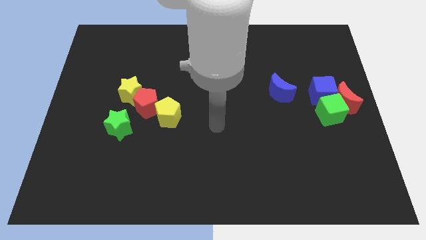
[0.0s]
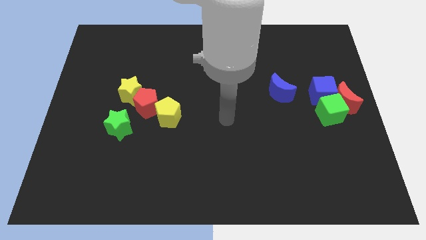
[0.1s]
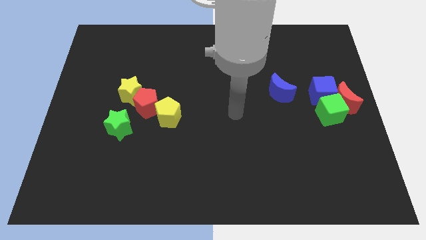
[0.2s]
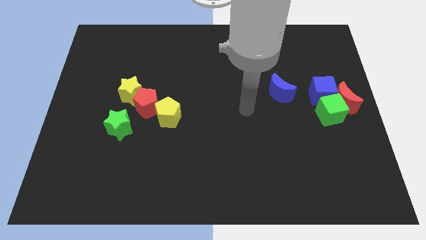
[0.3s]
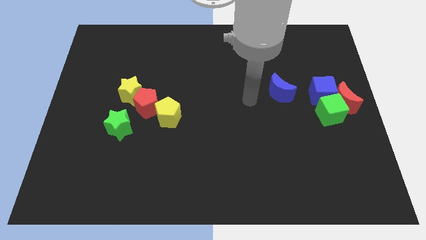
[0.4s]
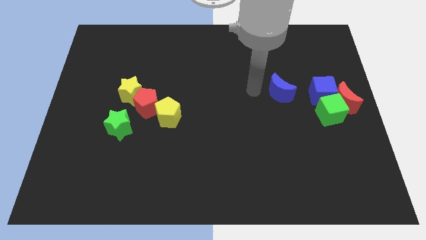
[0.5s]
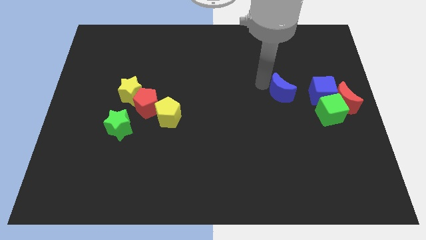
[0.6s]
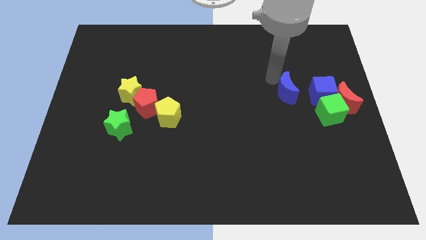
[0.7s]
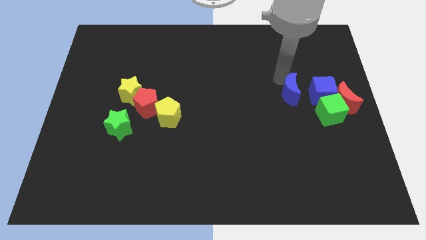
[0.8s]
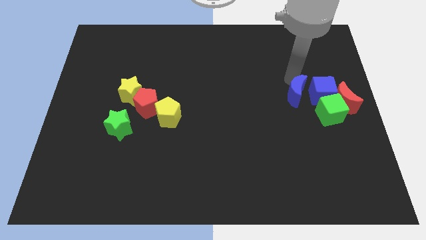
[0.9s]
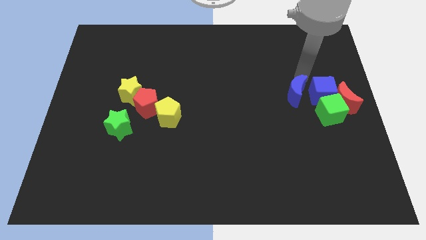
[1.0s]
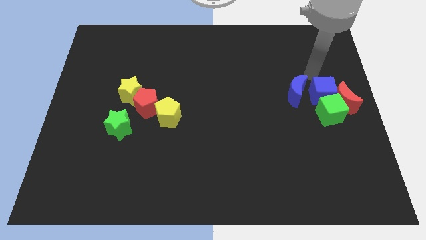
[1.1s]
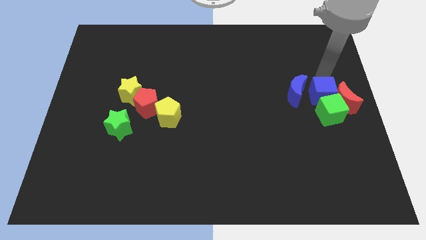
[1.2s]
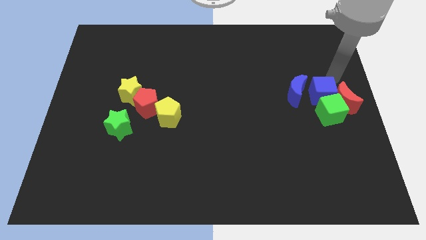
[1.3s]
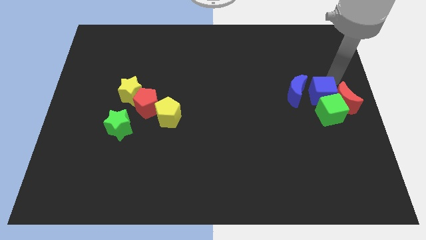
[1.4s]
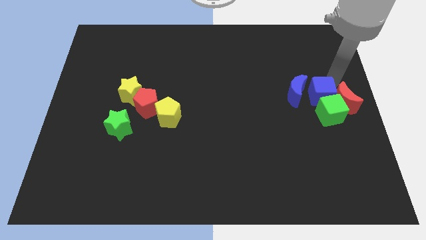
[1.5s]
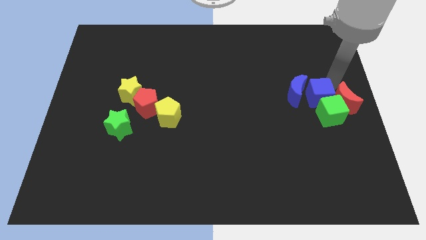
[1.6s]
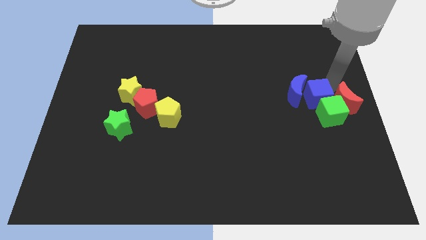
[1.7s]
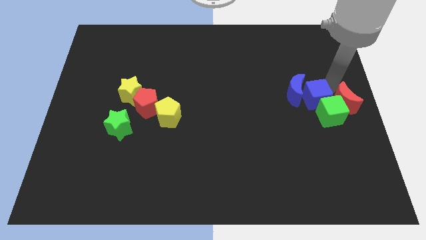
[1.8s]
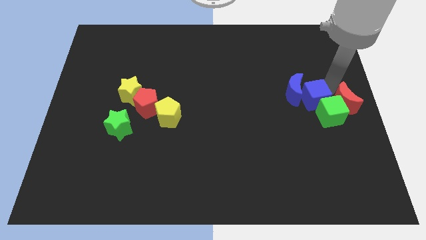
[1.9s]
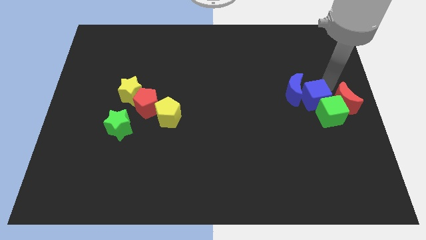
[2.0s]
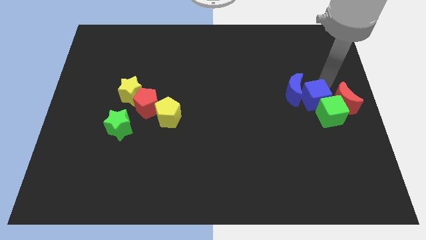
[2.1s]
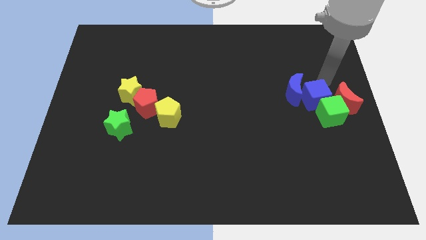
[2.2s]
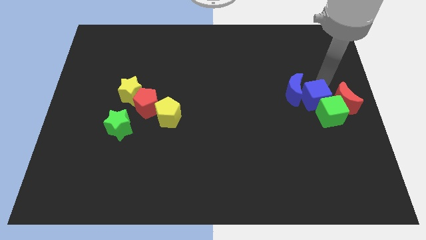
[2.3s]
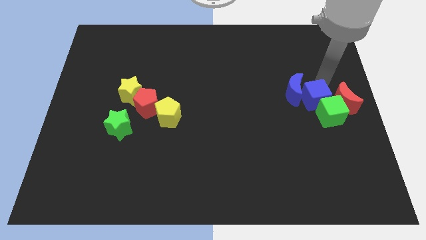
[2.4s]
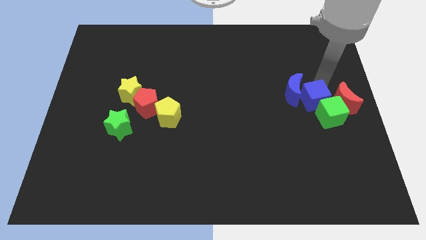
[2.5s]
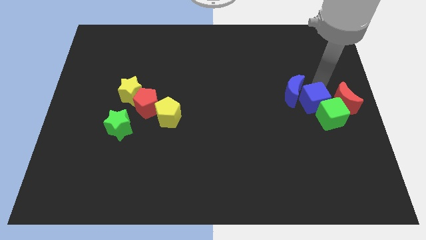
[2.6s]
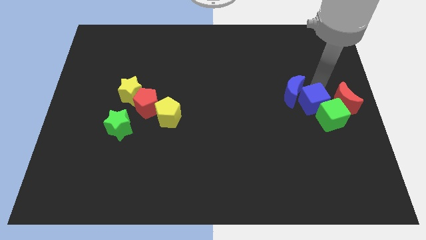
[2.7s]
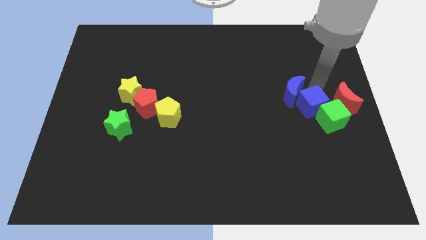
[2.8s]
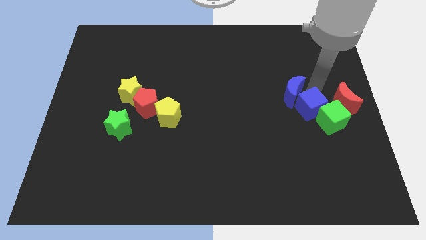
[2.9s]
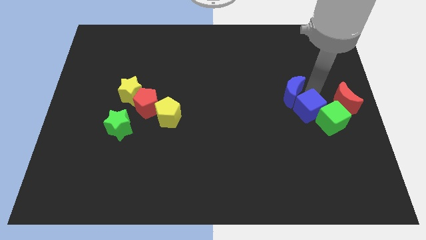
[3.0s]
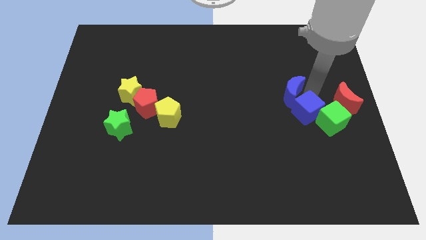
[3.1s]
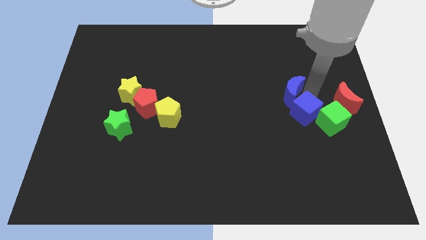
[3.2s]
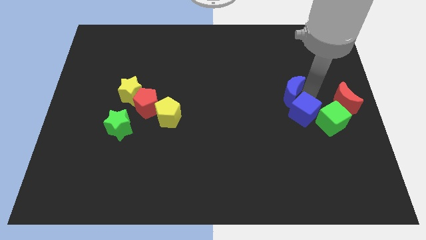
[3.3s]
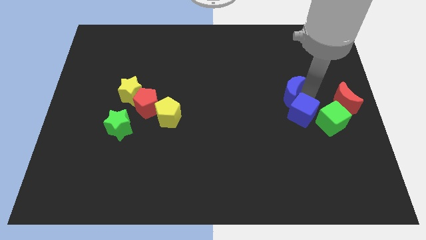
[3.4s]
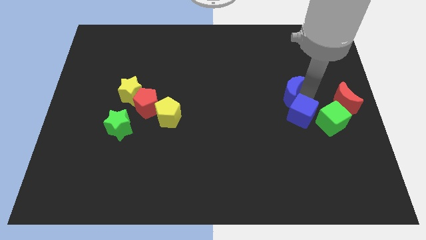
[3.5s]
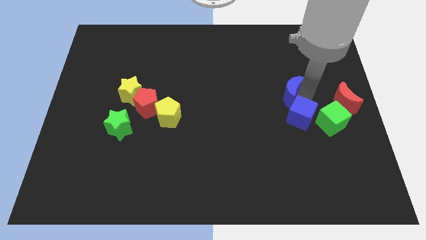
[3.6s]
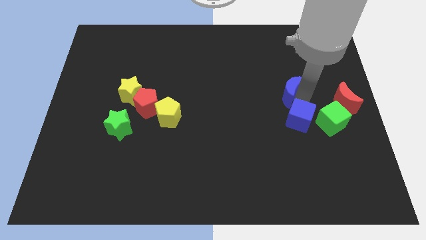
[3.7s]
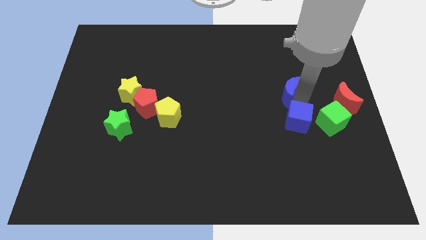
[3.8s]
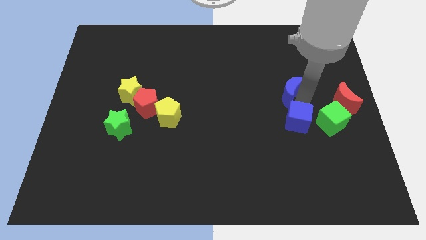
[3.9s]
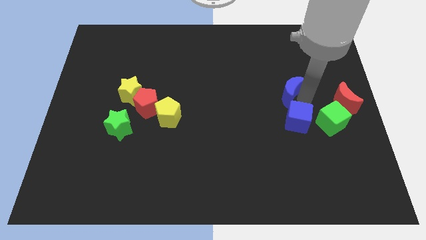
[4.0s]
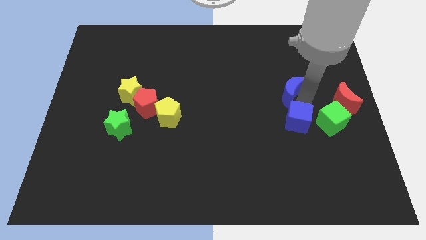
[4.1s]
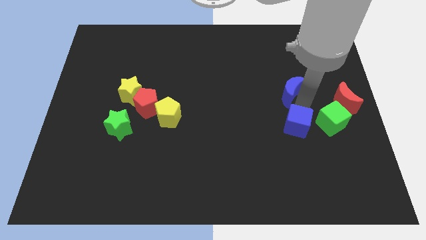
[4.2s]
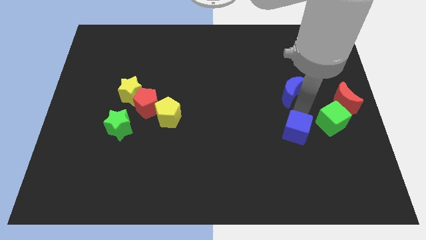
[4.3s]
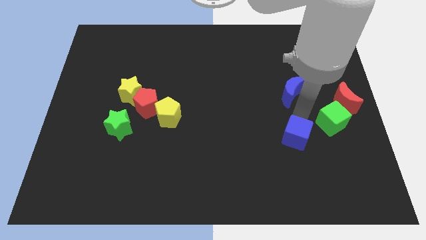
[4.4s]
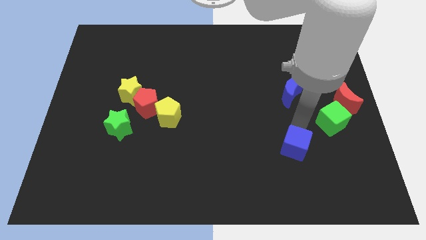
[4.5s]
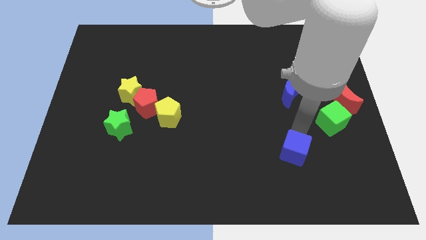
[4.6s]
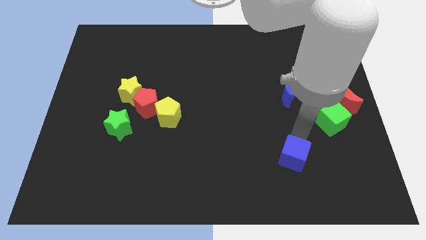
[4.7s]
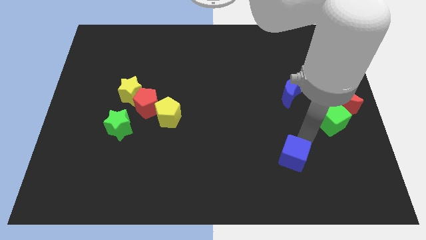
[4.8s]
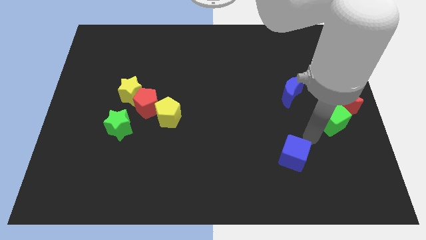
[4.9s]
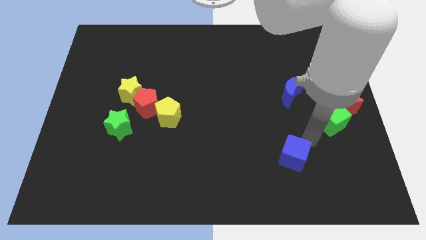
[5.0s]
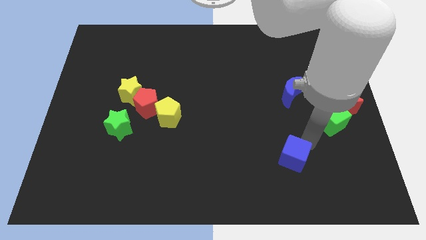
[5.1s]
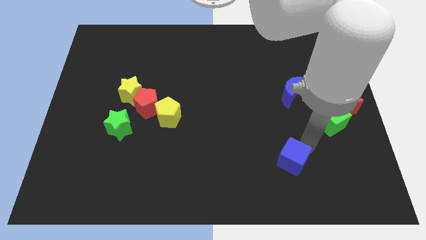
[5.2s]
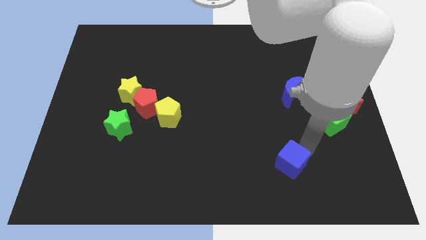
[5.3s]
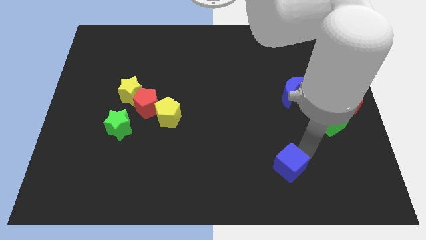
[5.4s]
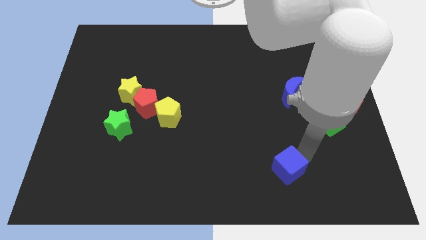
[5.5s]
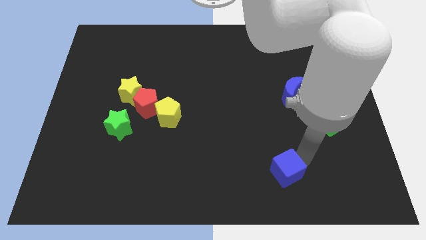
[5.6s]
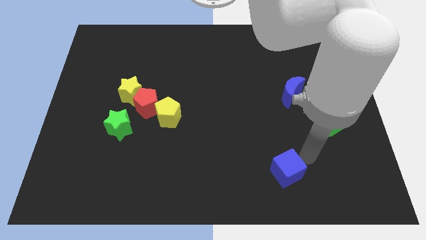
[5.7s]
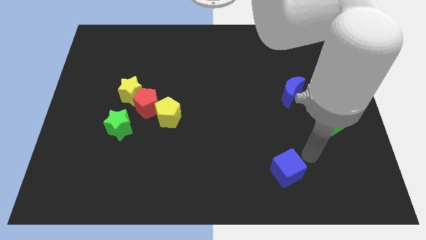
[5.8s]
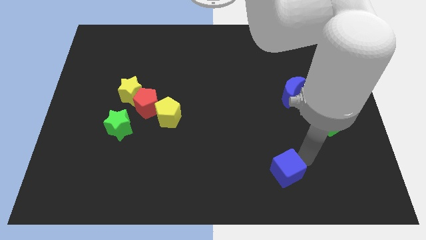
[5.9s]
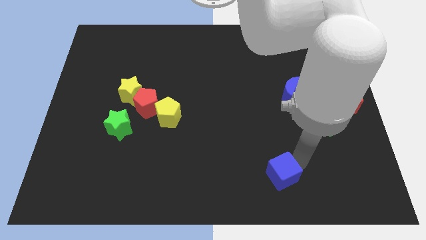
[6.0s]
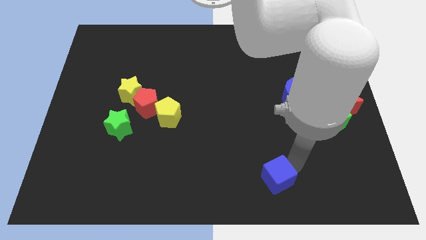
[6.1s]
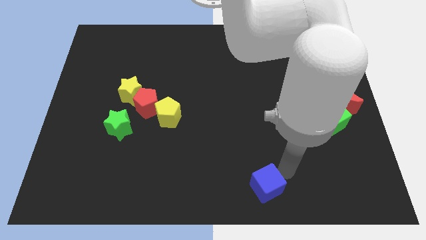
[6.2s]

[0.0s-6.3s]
slide the blue cube to the bottom

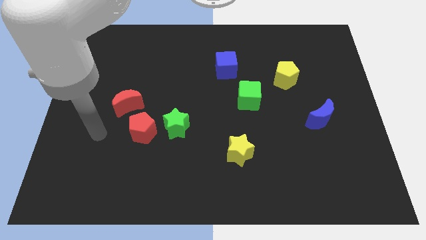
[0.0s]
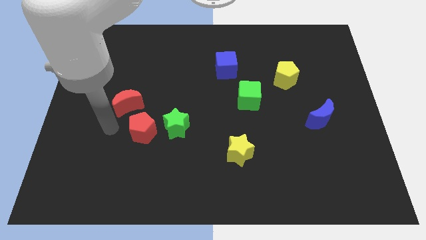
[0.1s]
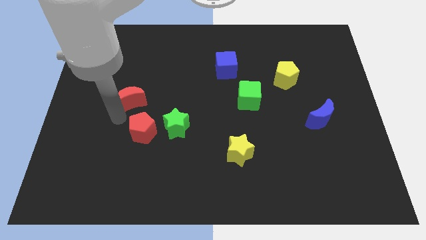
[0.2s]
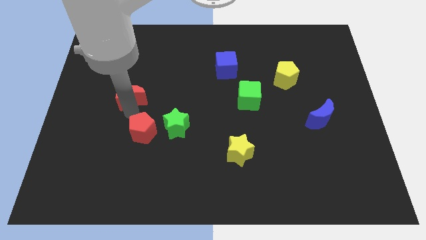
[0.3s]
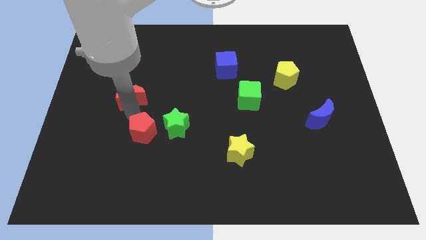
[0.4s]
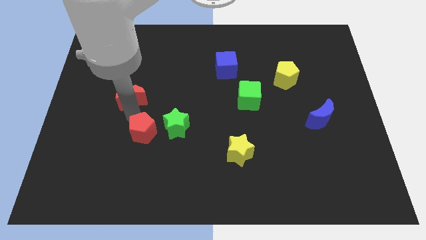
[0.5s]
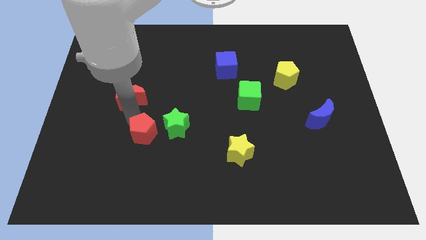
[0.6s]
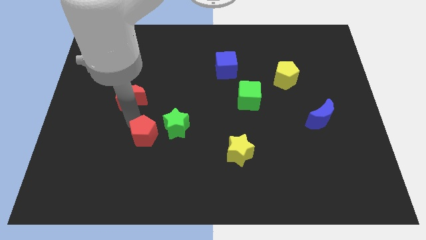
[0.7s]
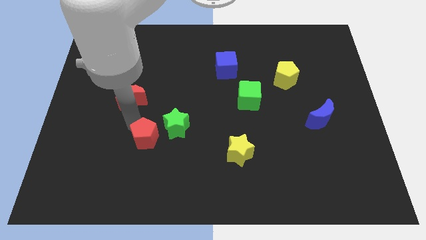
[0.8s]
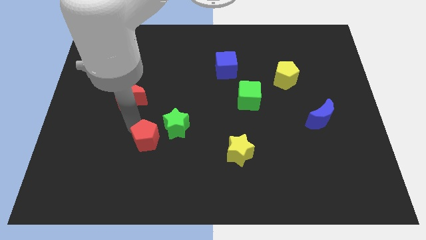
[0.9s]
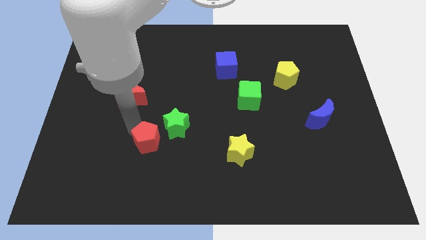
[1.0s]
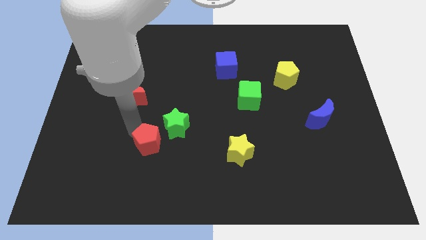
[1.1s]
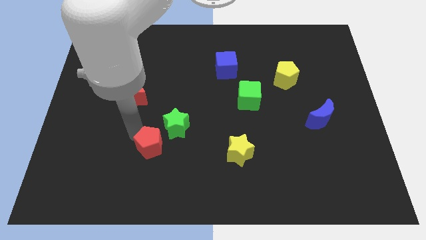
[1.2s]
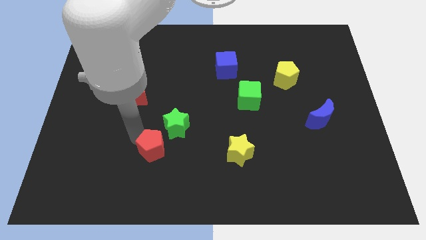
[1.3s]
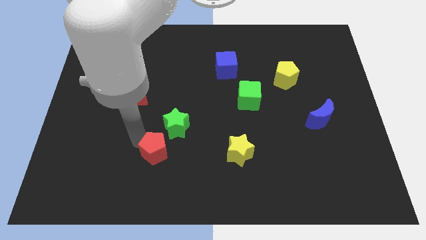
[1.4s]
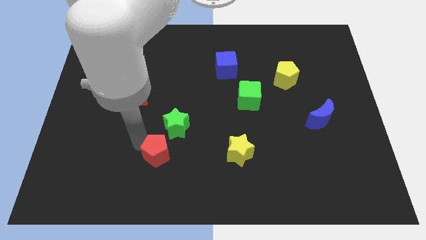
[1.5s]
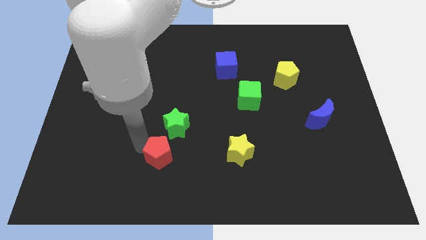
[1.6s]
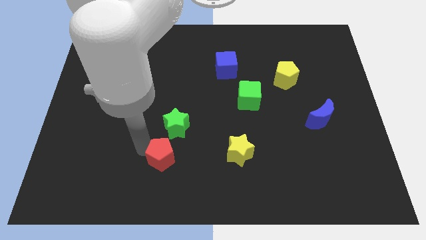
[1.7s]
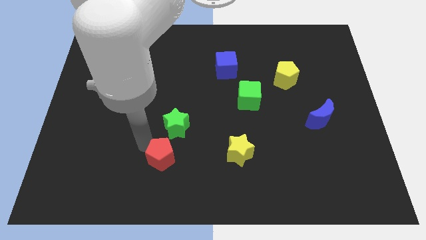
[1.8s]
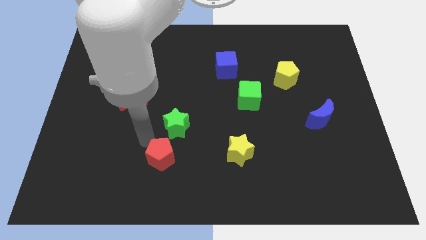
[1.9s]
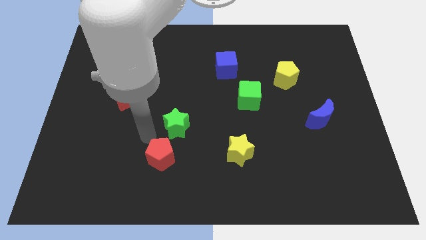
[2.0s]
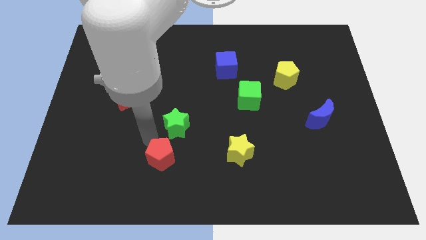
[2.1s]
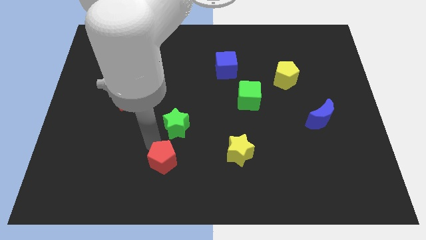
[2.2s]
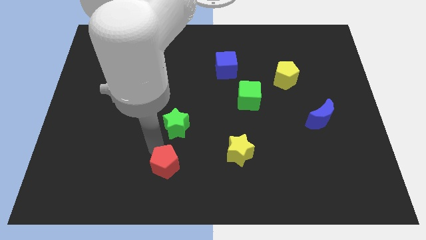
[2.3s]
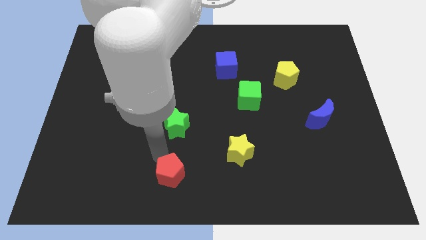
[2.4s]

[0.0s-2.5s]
push the red pentagon to the bottom
